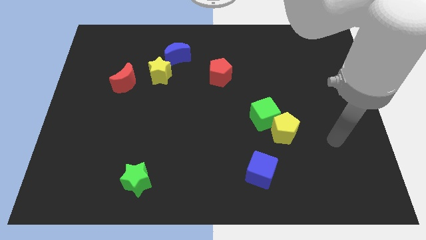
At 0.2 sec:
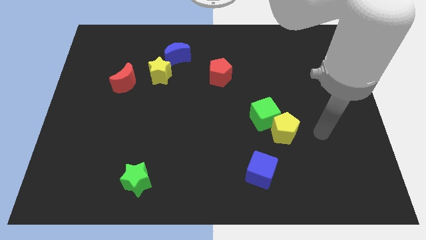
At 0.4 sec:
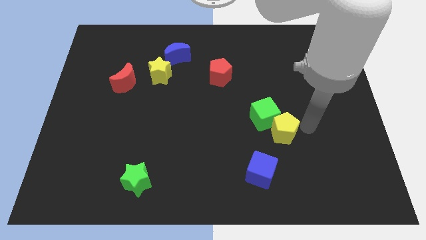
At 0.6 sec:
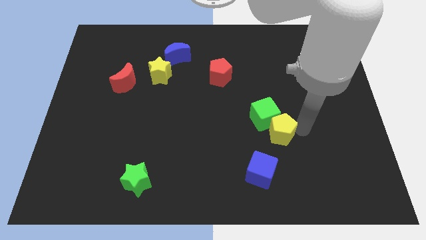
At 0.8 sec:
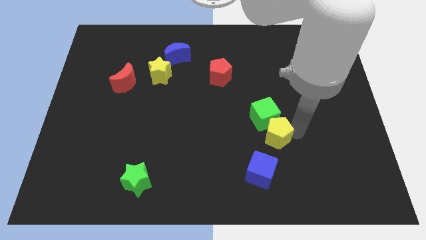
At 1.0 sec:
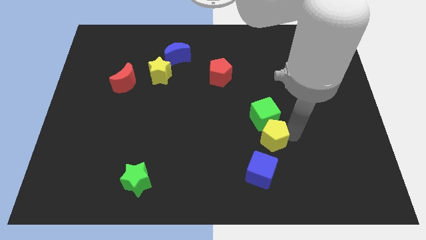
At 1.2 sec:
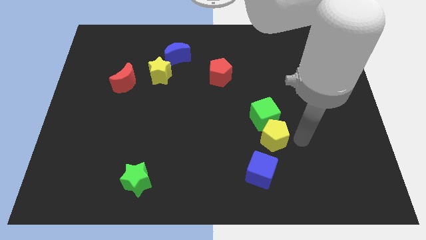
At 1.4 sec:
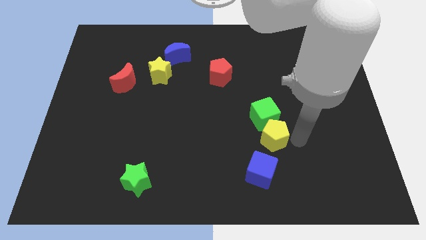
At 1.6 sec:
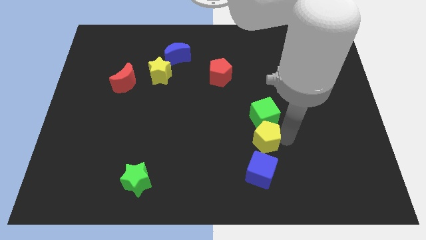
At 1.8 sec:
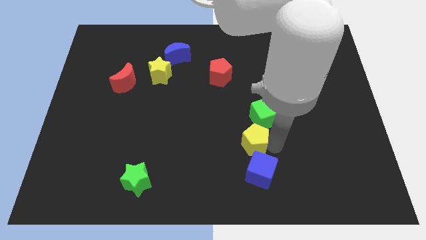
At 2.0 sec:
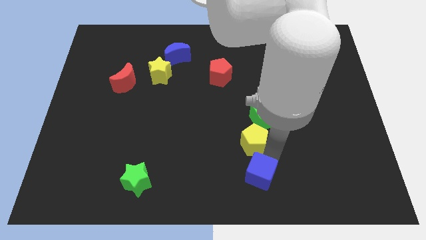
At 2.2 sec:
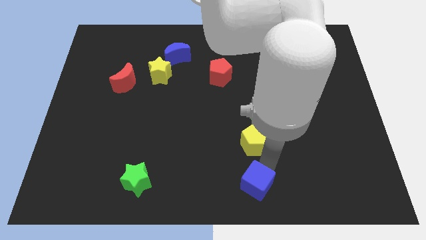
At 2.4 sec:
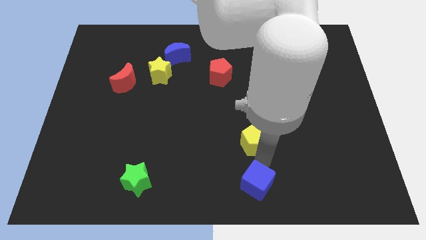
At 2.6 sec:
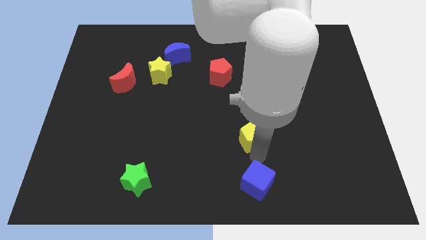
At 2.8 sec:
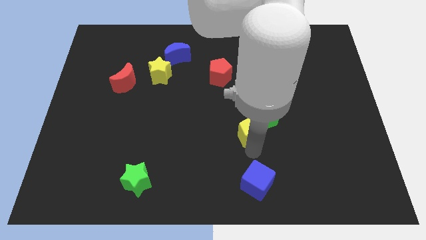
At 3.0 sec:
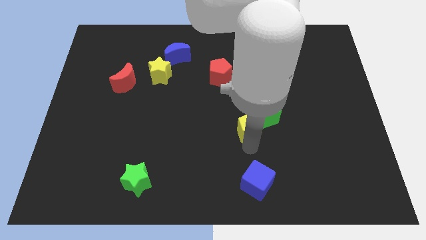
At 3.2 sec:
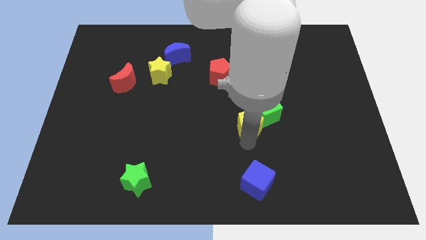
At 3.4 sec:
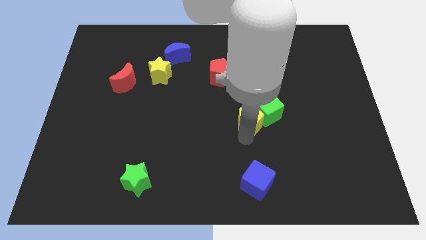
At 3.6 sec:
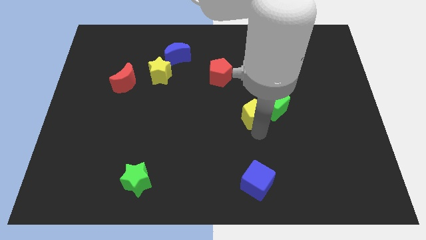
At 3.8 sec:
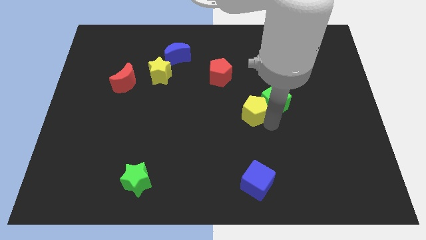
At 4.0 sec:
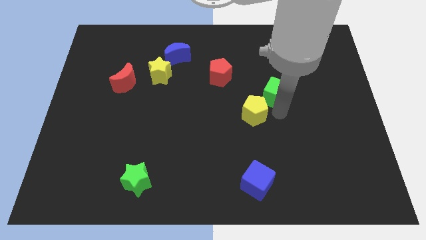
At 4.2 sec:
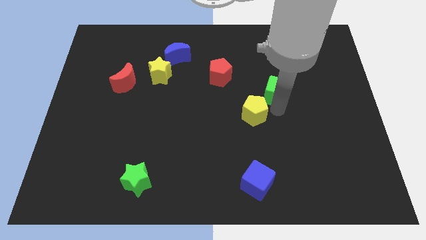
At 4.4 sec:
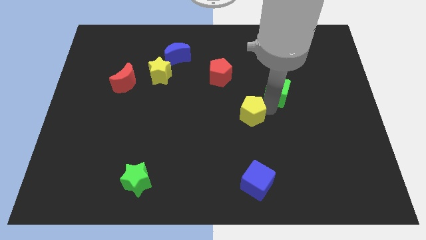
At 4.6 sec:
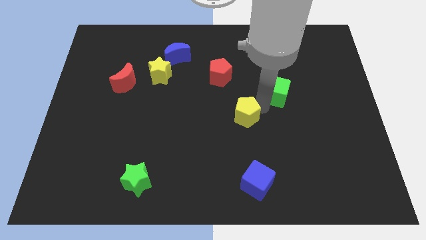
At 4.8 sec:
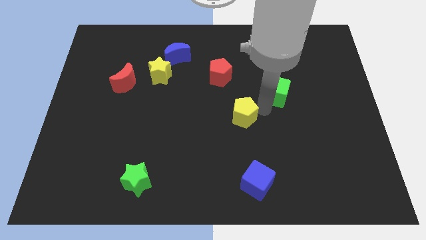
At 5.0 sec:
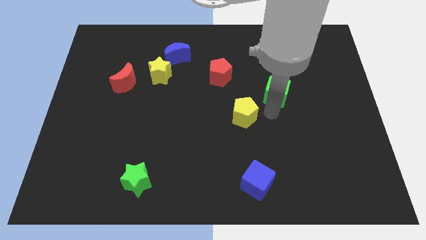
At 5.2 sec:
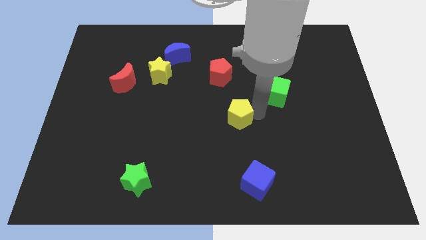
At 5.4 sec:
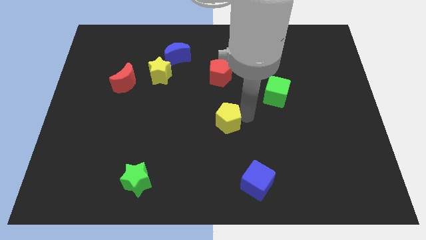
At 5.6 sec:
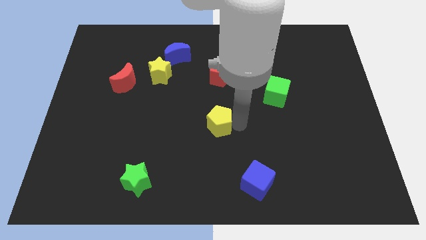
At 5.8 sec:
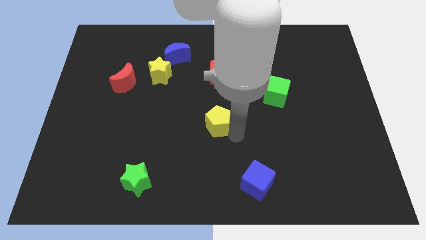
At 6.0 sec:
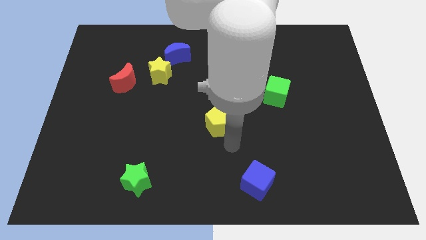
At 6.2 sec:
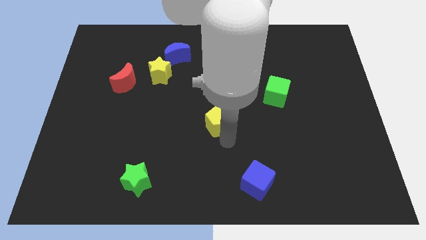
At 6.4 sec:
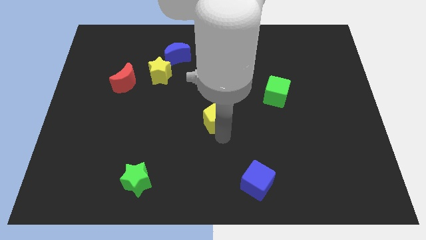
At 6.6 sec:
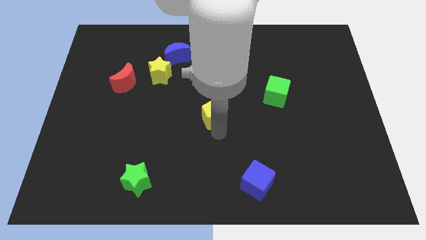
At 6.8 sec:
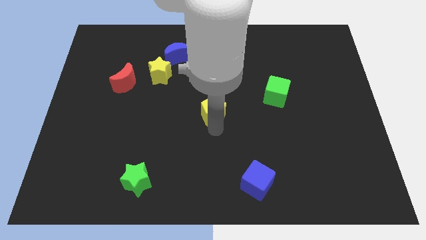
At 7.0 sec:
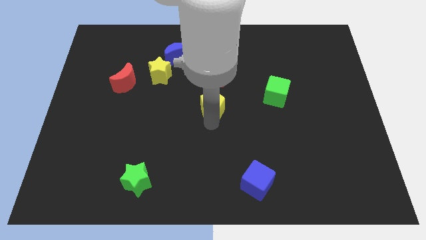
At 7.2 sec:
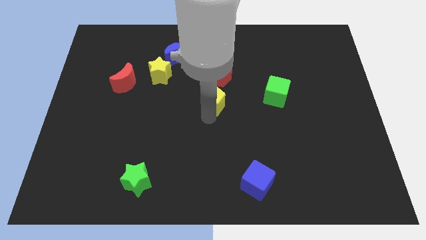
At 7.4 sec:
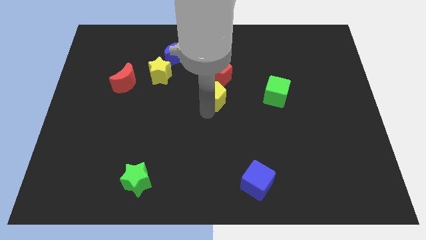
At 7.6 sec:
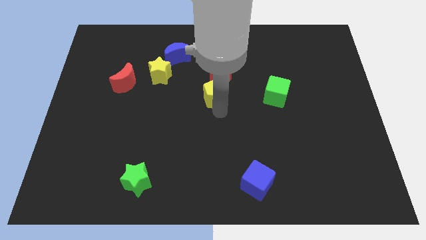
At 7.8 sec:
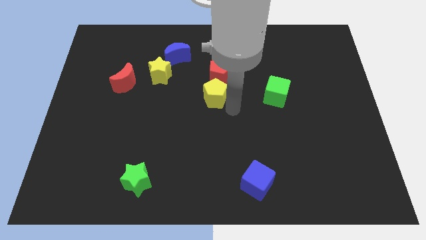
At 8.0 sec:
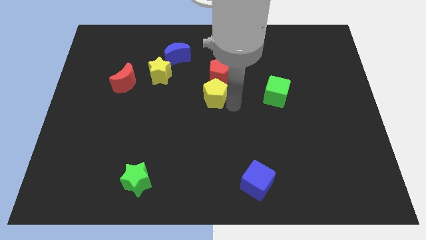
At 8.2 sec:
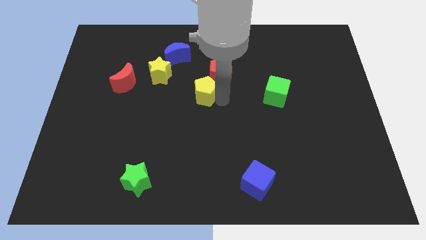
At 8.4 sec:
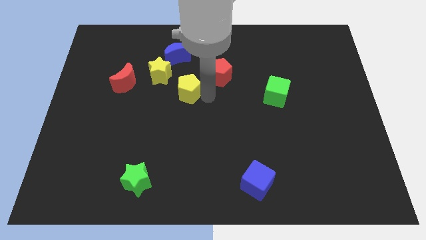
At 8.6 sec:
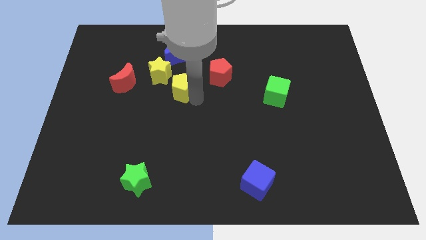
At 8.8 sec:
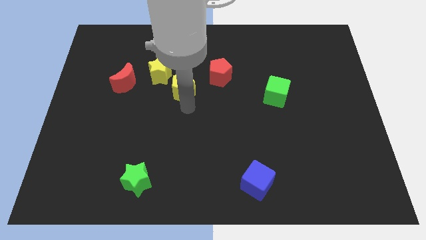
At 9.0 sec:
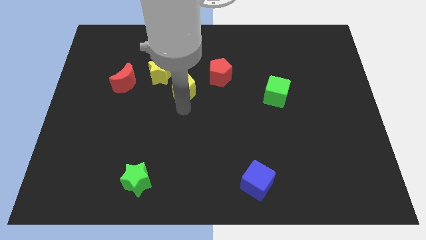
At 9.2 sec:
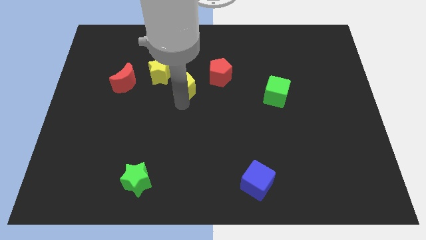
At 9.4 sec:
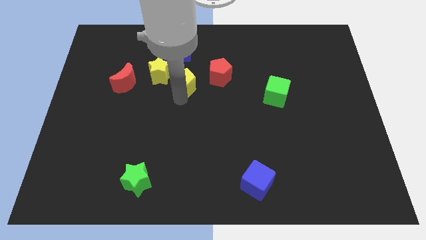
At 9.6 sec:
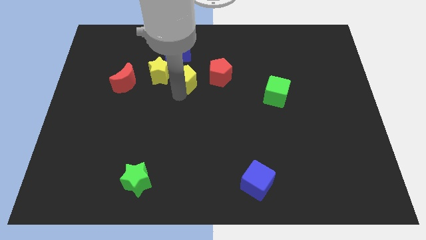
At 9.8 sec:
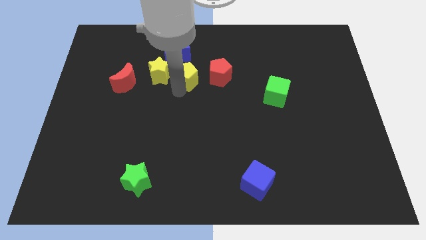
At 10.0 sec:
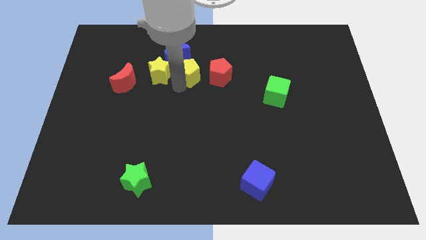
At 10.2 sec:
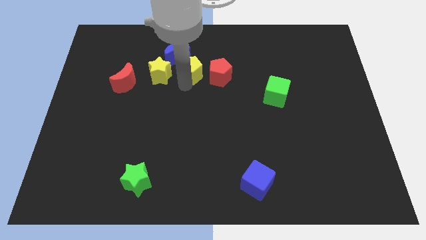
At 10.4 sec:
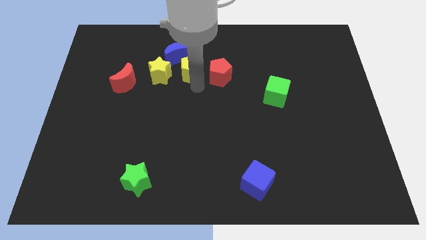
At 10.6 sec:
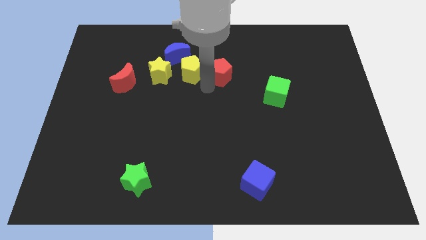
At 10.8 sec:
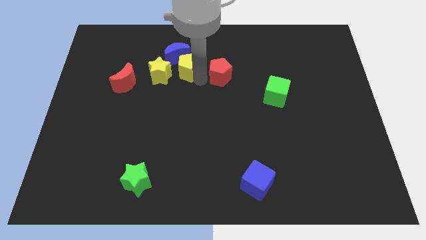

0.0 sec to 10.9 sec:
push the yellow pentagon close to the blue moon

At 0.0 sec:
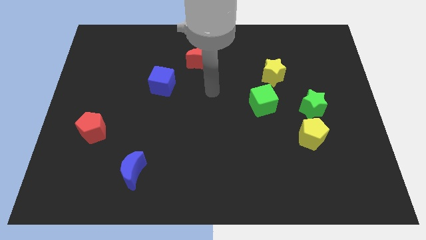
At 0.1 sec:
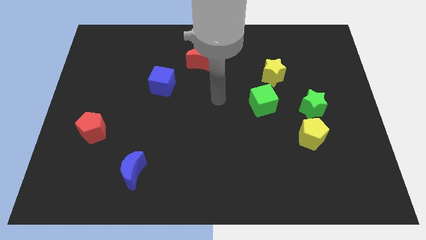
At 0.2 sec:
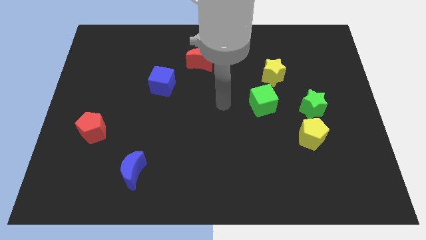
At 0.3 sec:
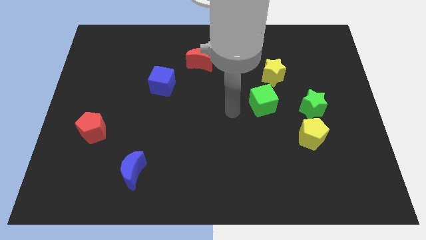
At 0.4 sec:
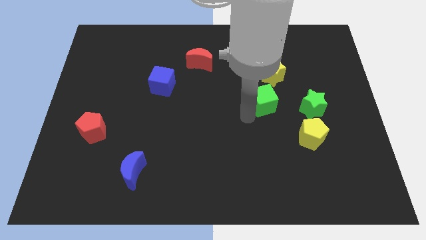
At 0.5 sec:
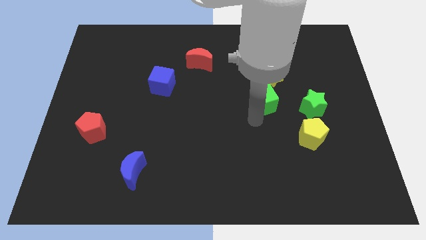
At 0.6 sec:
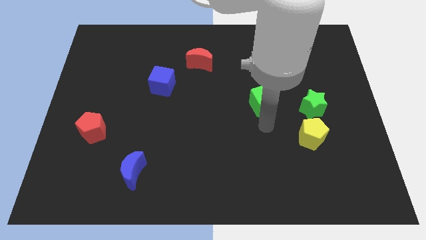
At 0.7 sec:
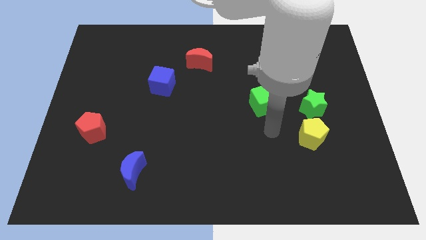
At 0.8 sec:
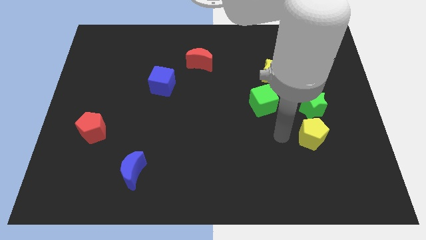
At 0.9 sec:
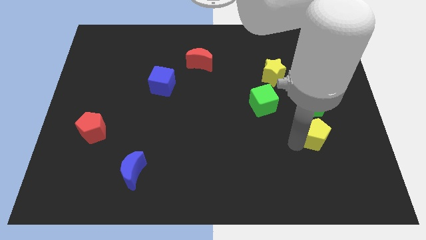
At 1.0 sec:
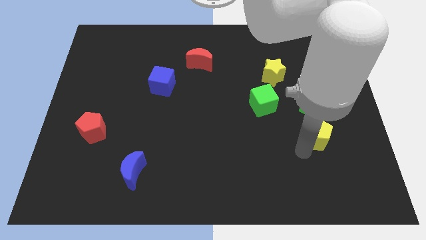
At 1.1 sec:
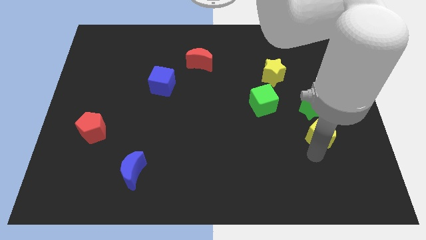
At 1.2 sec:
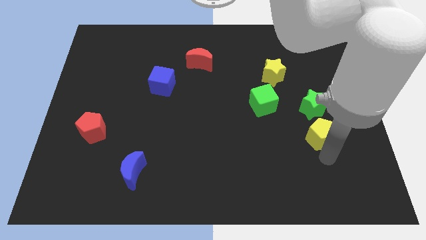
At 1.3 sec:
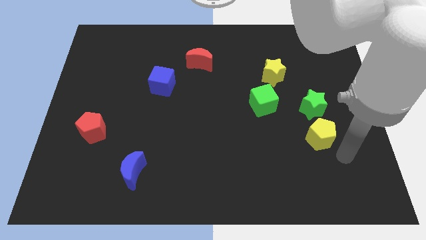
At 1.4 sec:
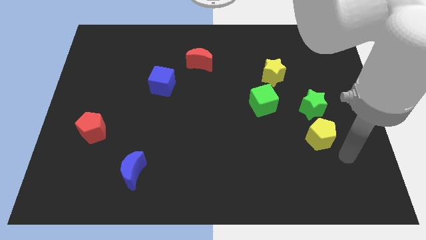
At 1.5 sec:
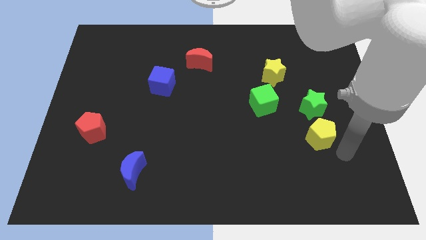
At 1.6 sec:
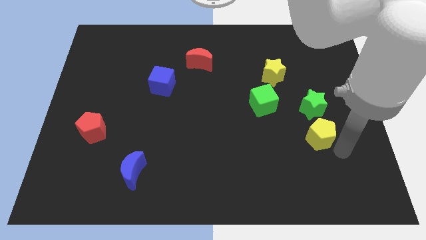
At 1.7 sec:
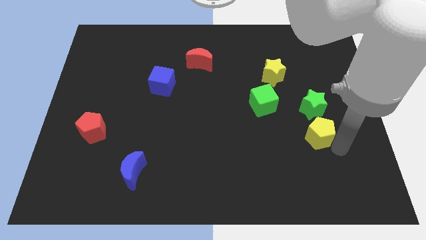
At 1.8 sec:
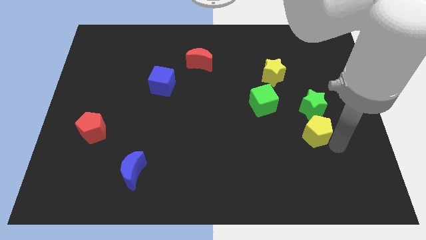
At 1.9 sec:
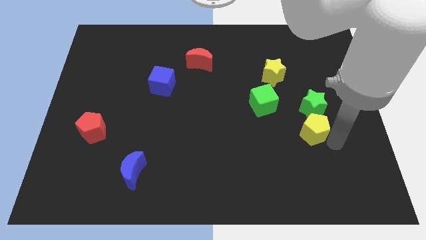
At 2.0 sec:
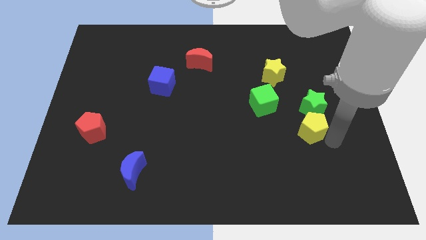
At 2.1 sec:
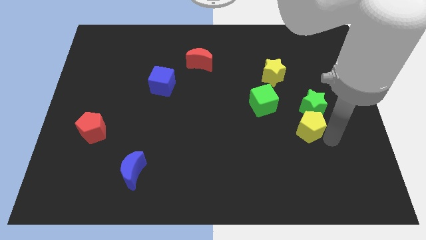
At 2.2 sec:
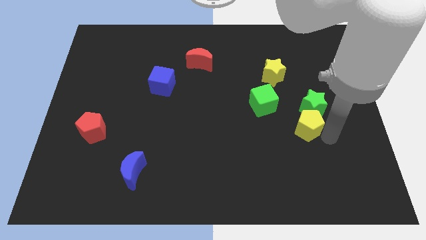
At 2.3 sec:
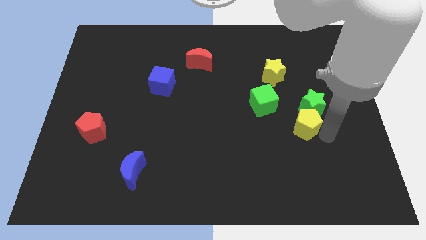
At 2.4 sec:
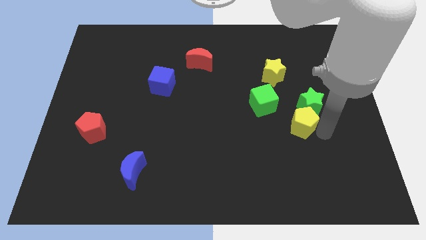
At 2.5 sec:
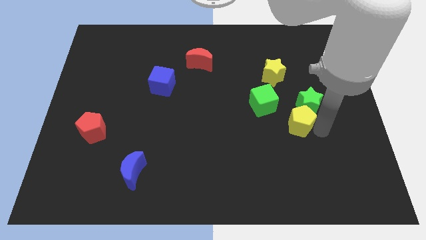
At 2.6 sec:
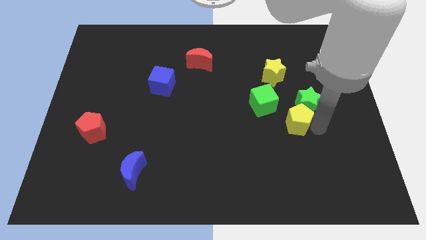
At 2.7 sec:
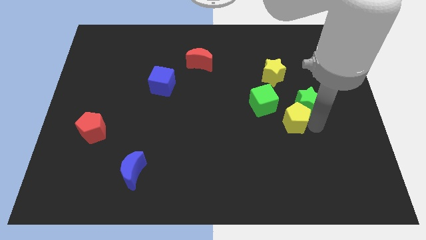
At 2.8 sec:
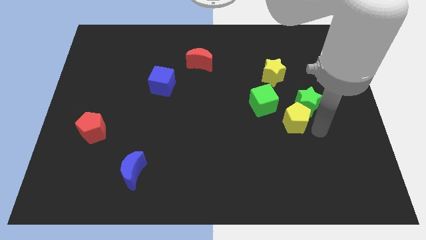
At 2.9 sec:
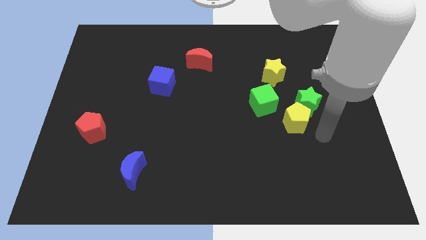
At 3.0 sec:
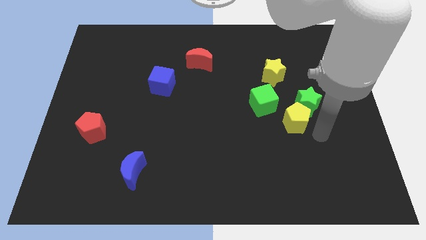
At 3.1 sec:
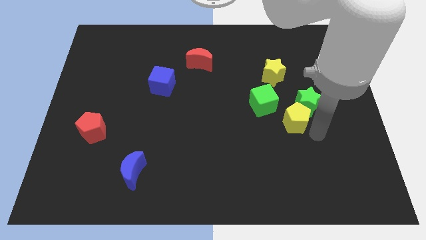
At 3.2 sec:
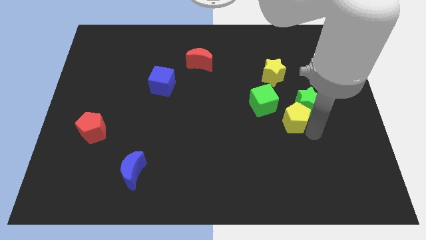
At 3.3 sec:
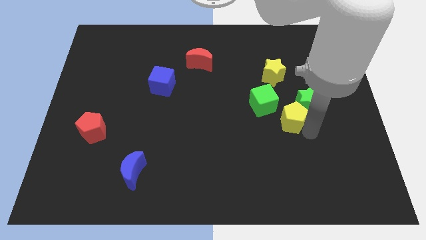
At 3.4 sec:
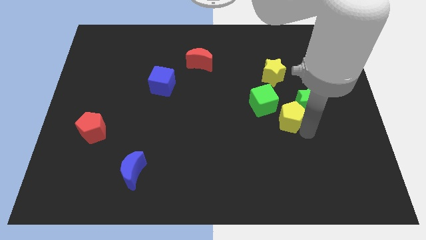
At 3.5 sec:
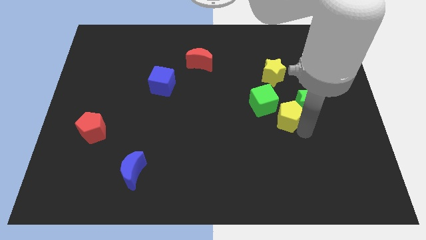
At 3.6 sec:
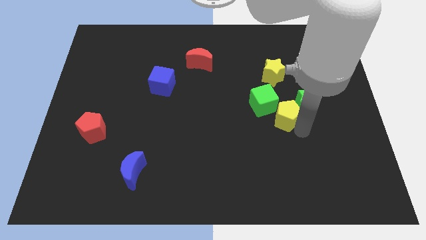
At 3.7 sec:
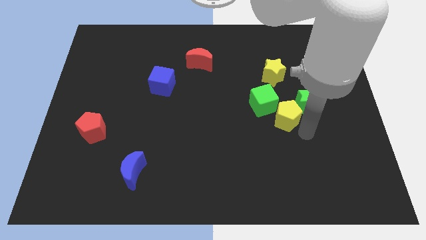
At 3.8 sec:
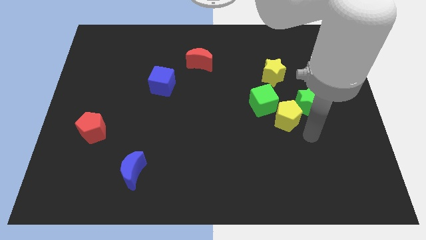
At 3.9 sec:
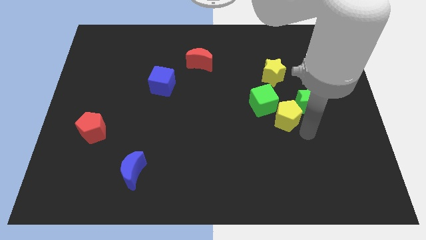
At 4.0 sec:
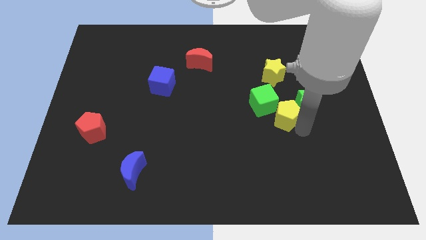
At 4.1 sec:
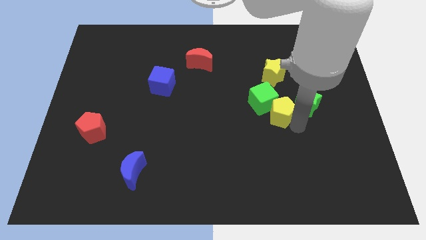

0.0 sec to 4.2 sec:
move the yellow pentagon to the green cube
